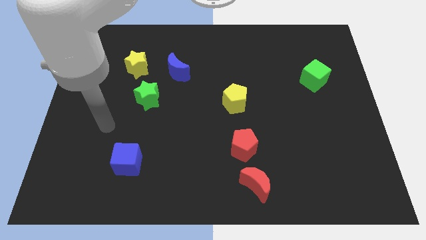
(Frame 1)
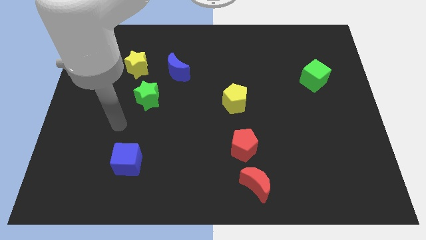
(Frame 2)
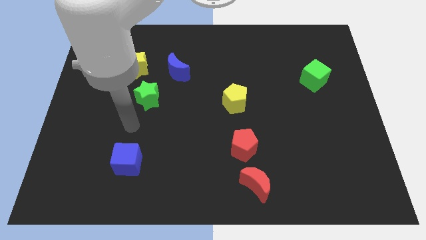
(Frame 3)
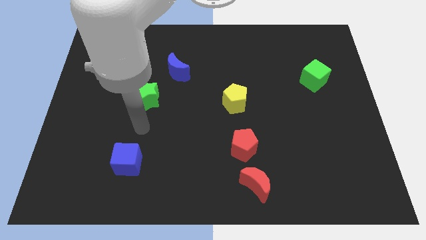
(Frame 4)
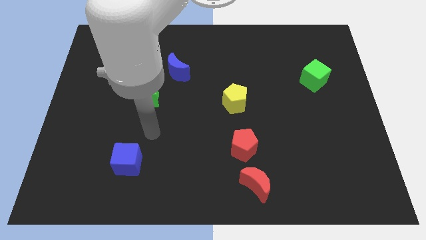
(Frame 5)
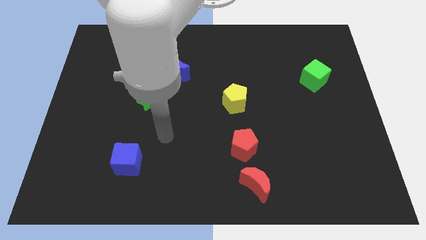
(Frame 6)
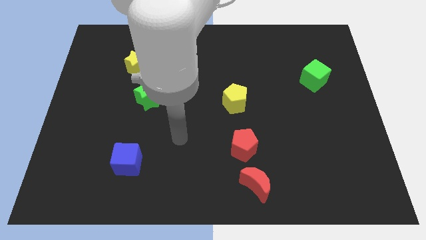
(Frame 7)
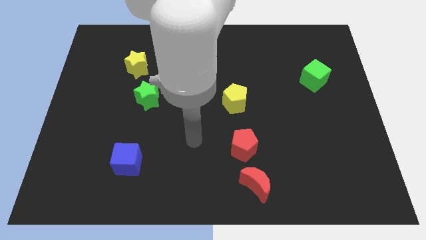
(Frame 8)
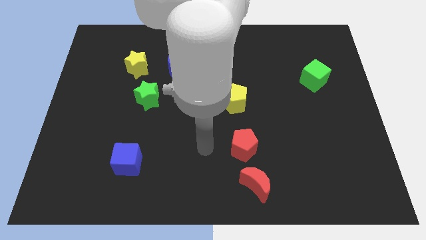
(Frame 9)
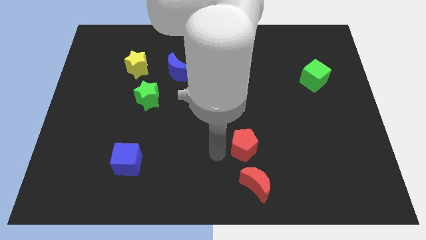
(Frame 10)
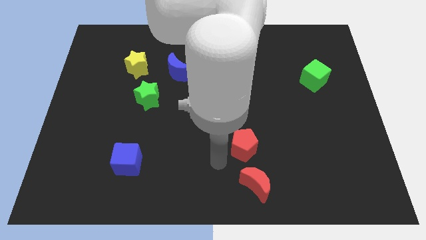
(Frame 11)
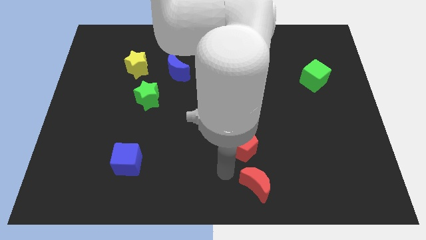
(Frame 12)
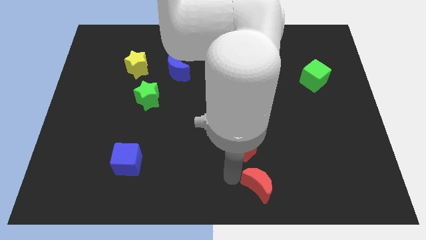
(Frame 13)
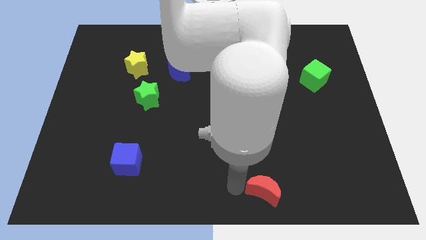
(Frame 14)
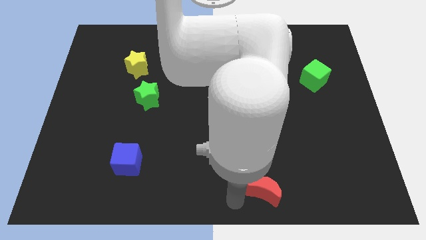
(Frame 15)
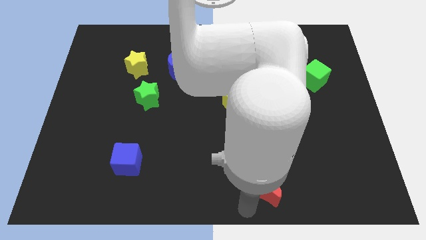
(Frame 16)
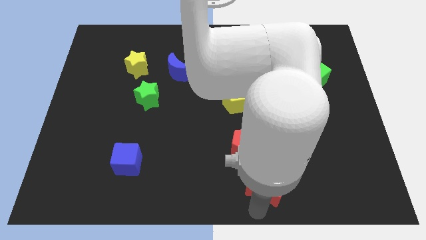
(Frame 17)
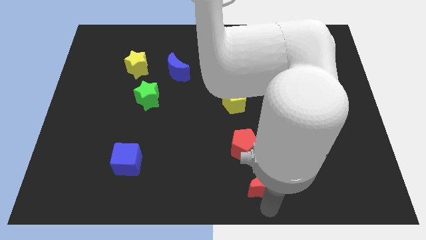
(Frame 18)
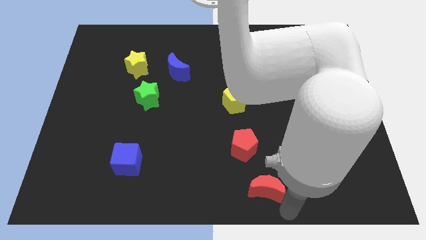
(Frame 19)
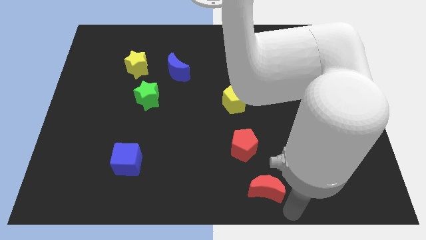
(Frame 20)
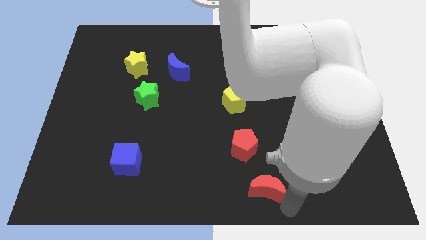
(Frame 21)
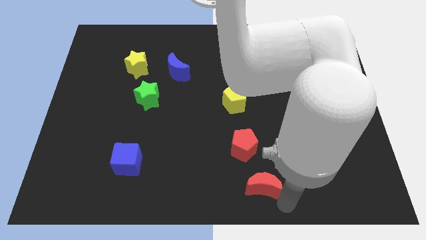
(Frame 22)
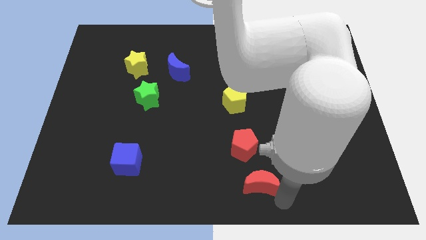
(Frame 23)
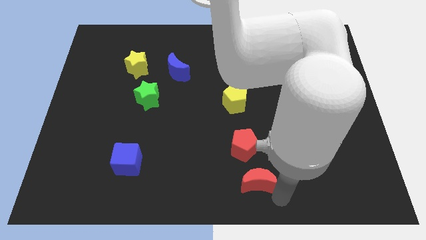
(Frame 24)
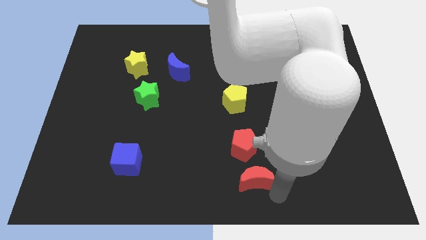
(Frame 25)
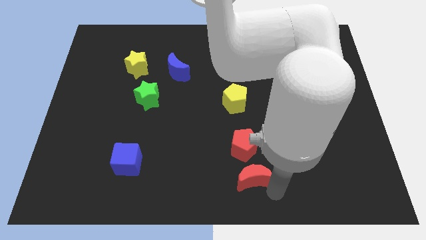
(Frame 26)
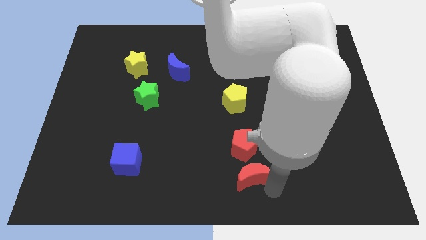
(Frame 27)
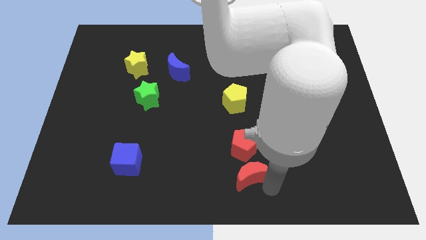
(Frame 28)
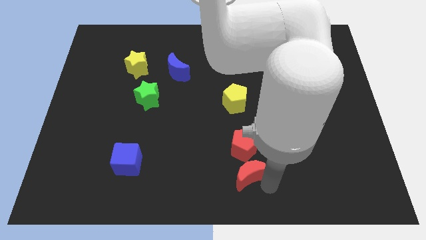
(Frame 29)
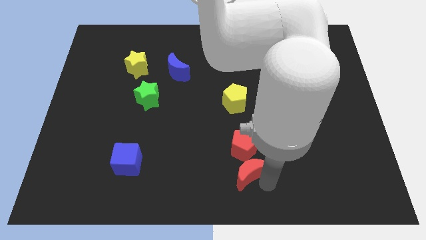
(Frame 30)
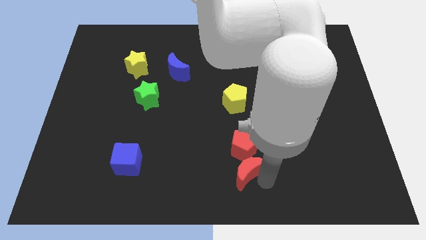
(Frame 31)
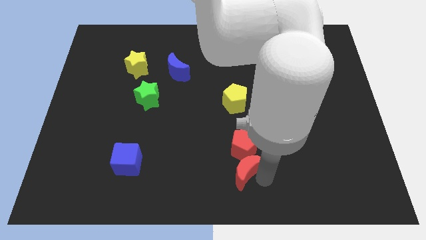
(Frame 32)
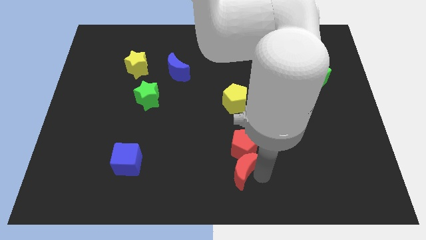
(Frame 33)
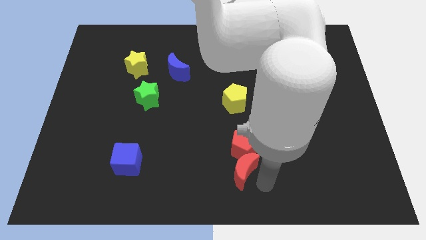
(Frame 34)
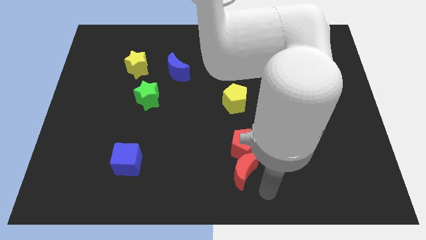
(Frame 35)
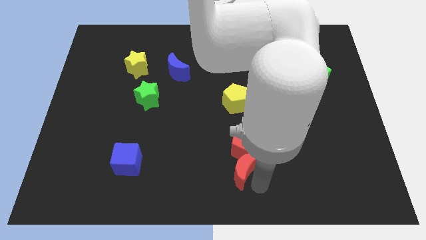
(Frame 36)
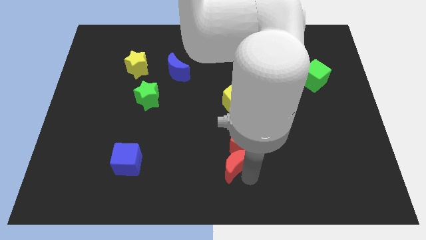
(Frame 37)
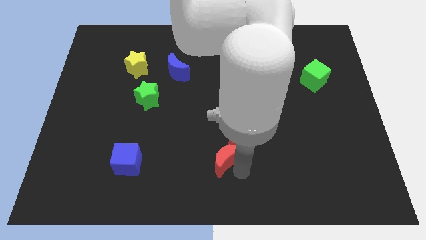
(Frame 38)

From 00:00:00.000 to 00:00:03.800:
push the red moon diagonally upwards and to the left a bit

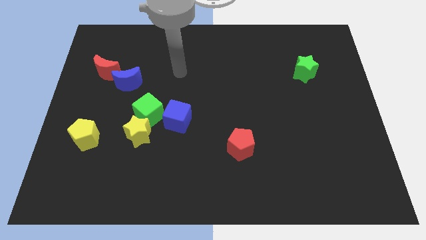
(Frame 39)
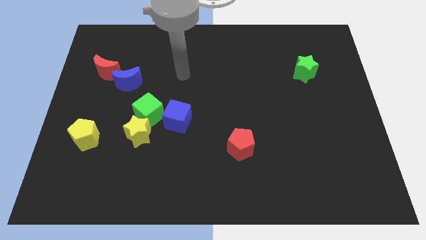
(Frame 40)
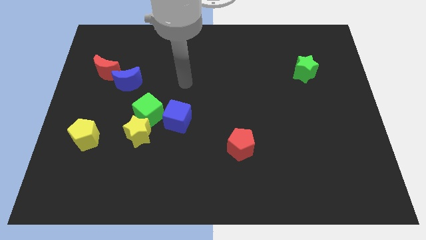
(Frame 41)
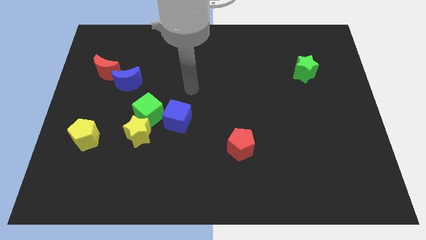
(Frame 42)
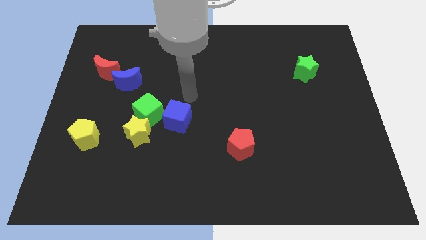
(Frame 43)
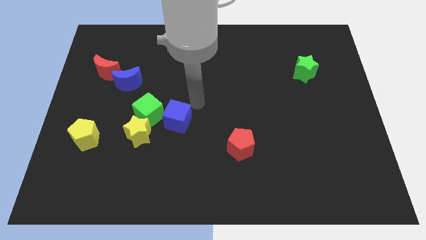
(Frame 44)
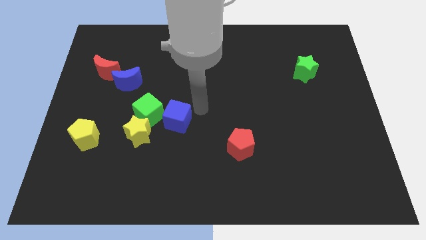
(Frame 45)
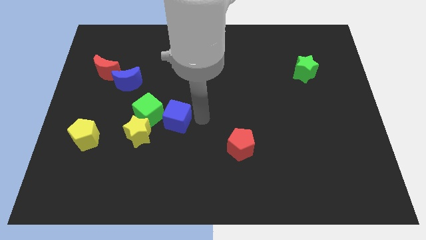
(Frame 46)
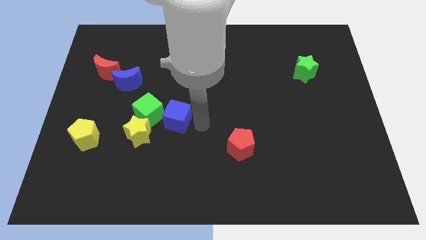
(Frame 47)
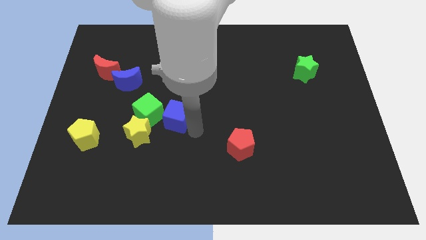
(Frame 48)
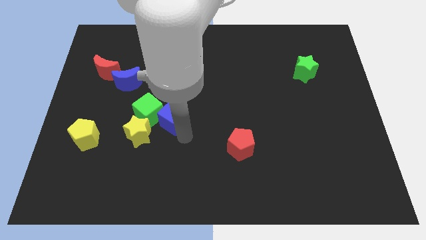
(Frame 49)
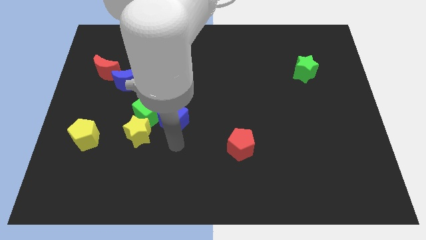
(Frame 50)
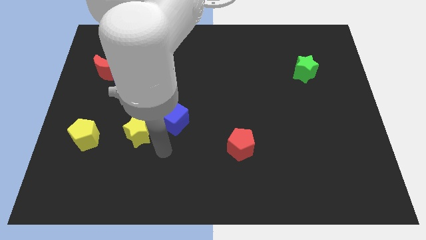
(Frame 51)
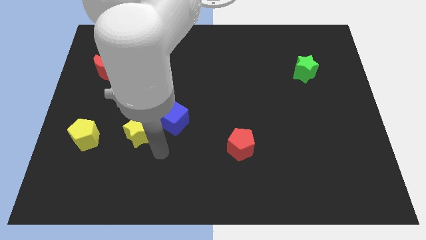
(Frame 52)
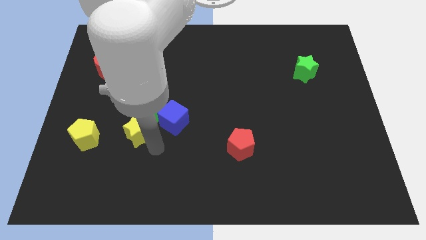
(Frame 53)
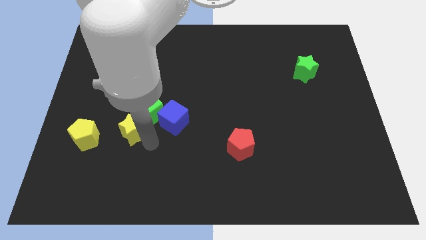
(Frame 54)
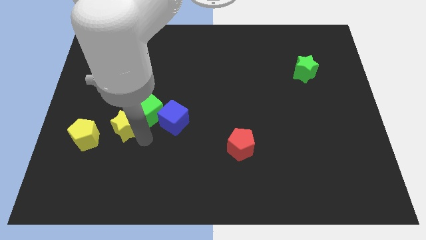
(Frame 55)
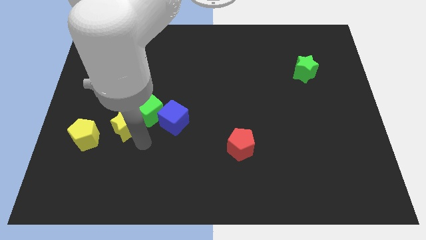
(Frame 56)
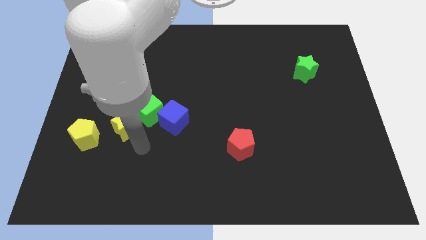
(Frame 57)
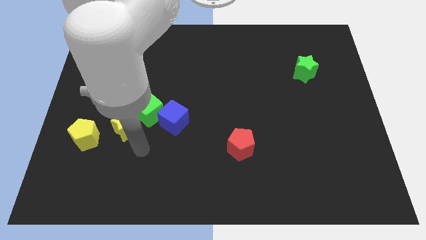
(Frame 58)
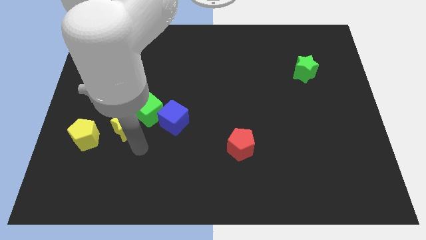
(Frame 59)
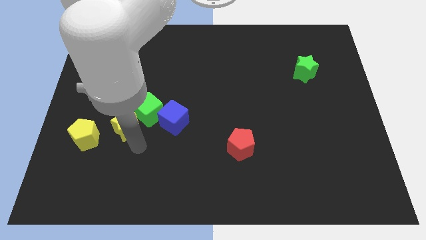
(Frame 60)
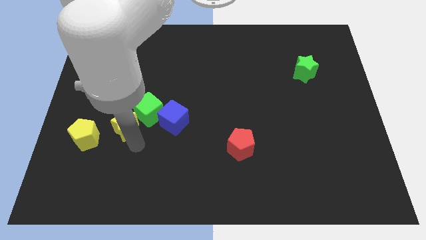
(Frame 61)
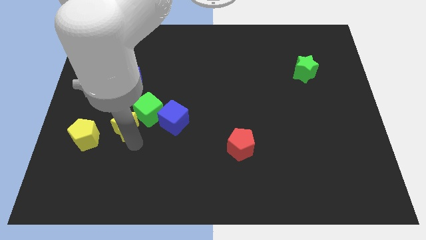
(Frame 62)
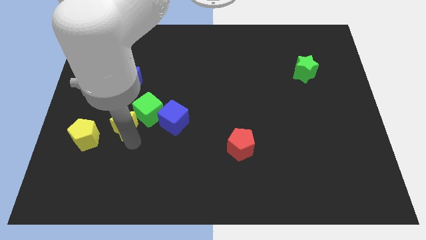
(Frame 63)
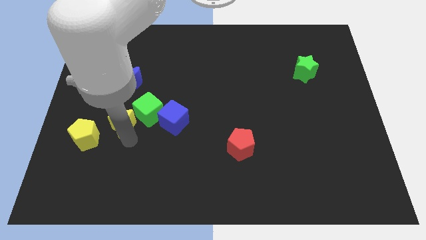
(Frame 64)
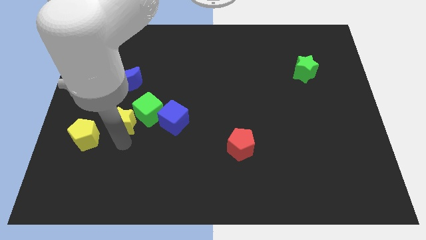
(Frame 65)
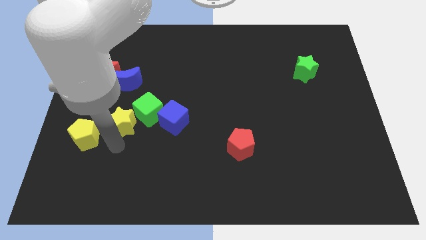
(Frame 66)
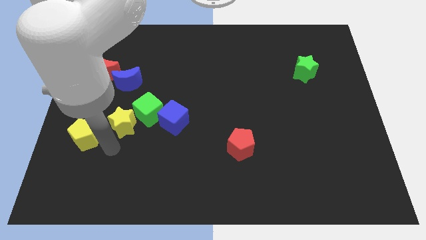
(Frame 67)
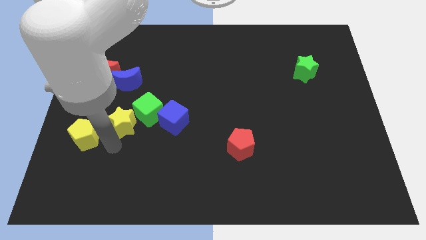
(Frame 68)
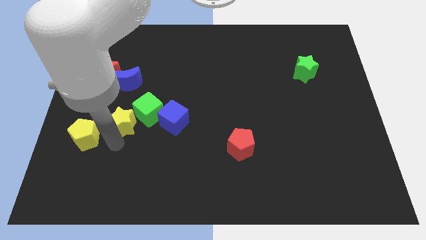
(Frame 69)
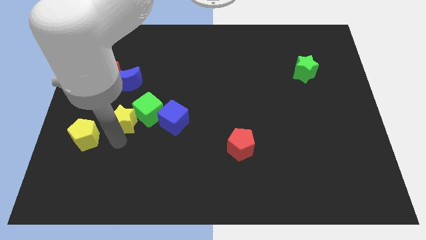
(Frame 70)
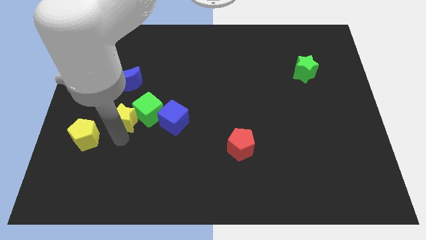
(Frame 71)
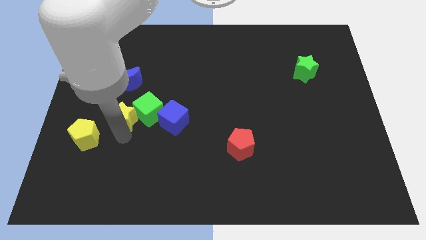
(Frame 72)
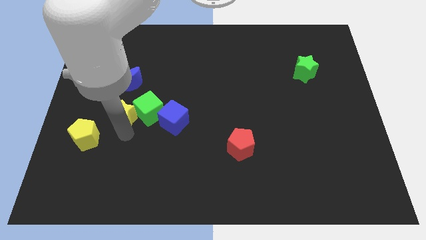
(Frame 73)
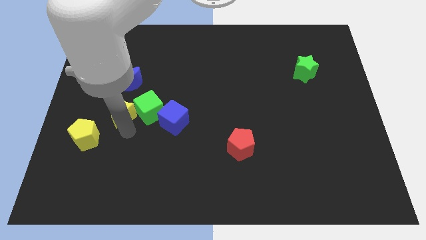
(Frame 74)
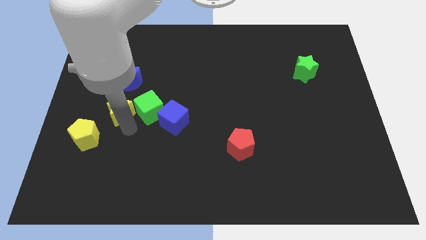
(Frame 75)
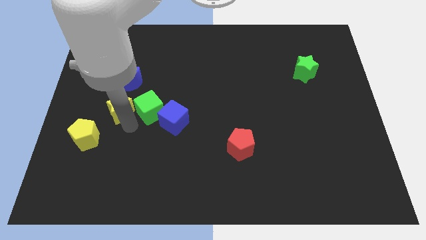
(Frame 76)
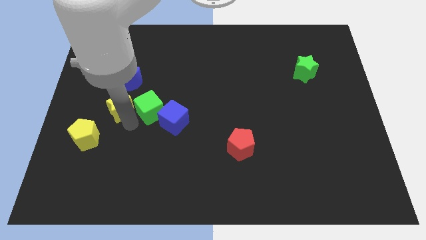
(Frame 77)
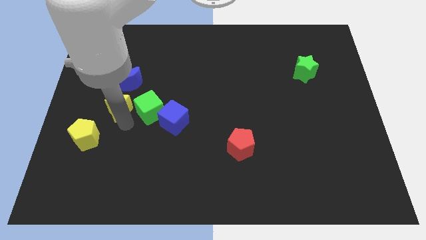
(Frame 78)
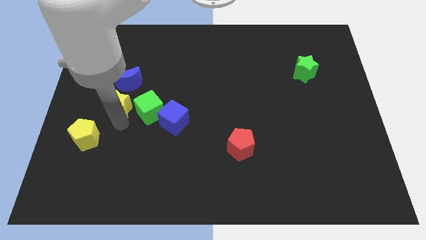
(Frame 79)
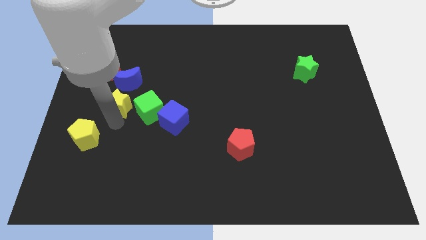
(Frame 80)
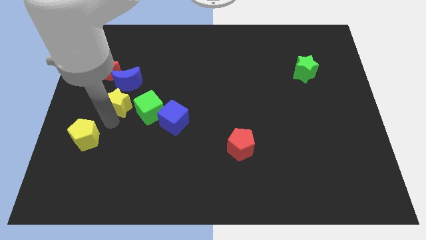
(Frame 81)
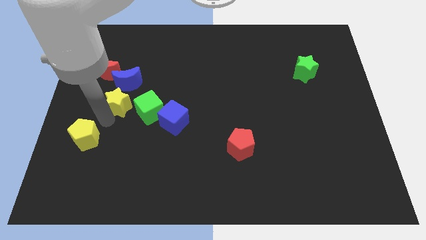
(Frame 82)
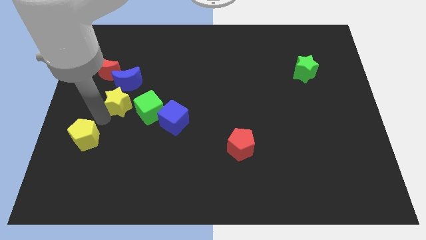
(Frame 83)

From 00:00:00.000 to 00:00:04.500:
push the yellow star slightly up
